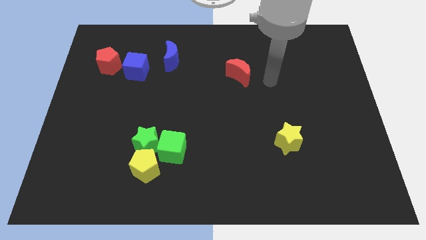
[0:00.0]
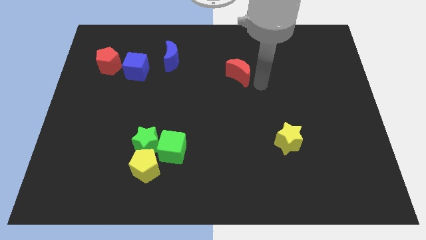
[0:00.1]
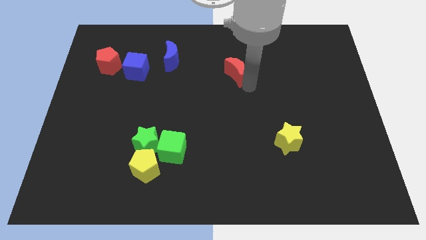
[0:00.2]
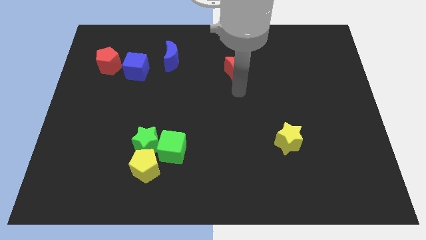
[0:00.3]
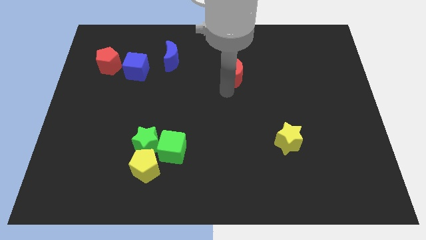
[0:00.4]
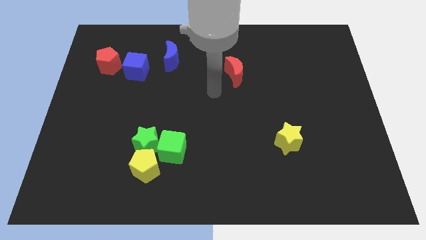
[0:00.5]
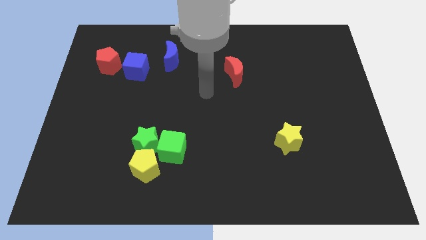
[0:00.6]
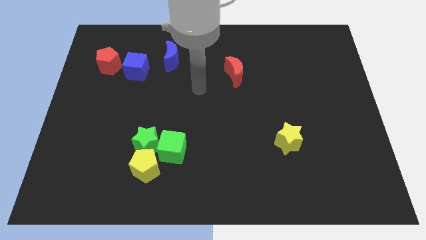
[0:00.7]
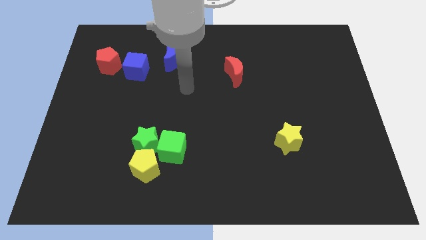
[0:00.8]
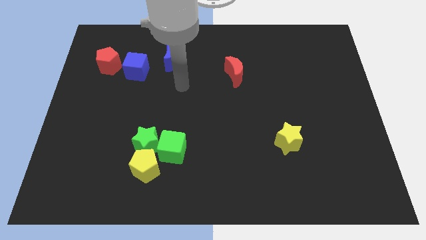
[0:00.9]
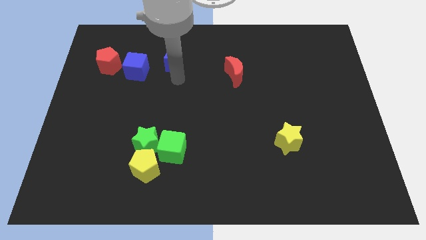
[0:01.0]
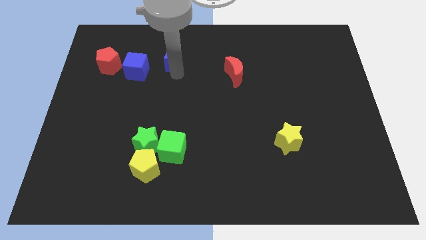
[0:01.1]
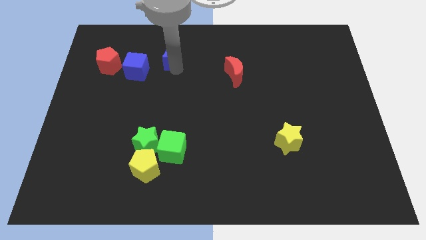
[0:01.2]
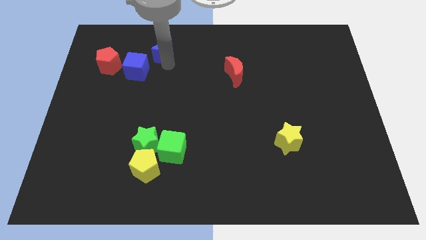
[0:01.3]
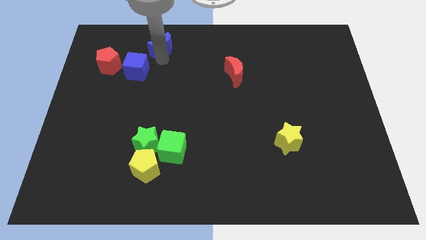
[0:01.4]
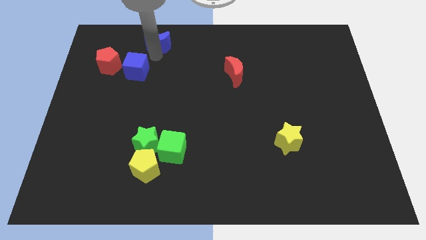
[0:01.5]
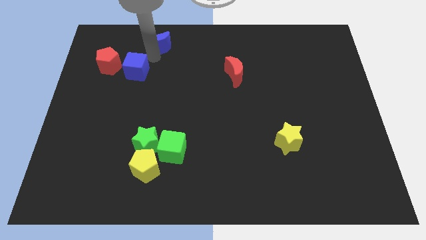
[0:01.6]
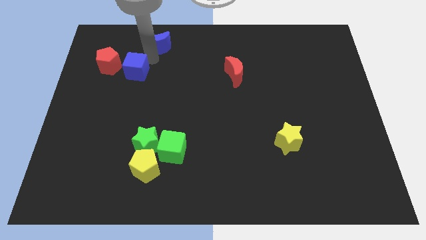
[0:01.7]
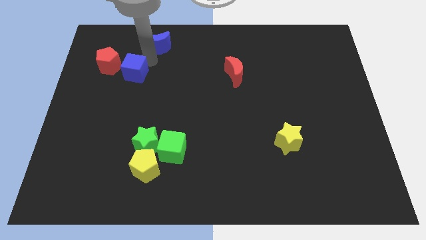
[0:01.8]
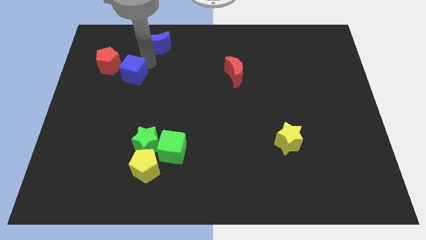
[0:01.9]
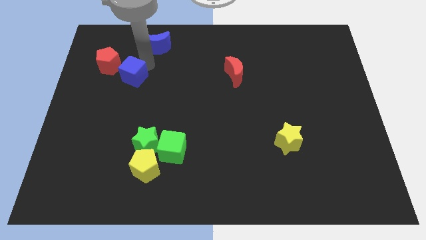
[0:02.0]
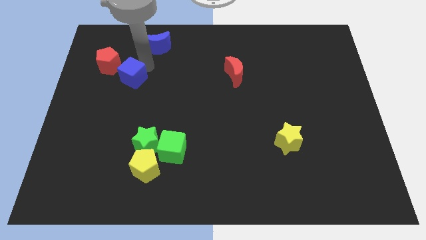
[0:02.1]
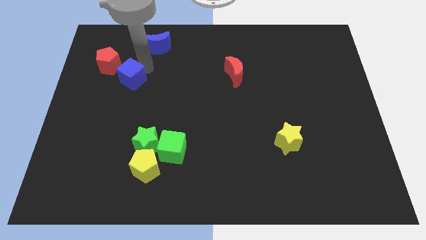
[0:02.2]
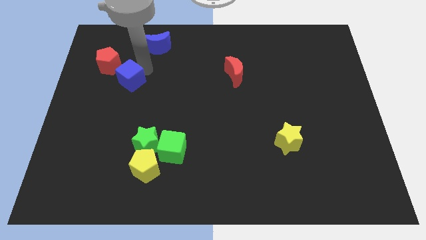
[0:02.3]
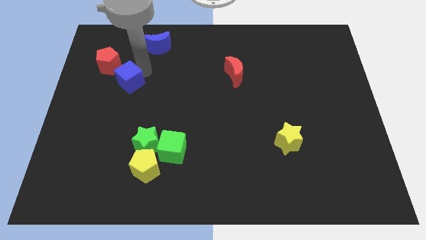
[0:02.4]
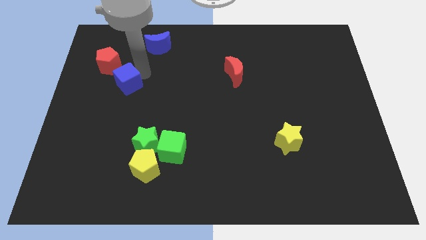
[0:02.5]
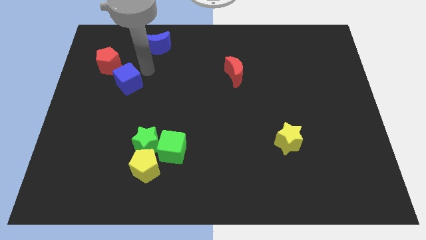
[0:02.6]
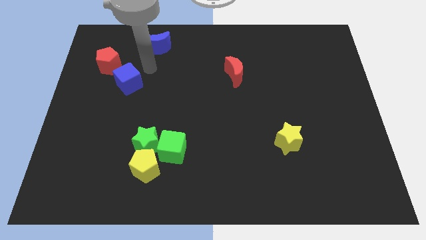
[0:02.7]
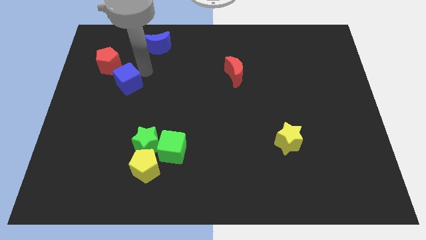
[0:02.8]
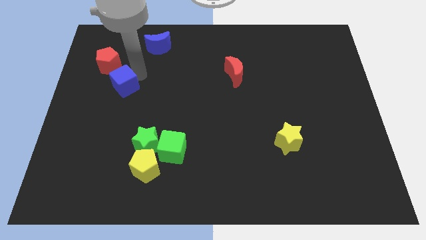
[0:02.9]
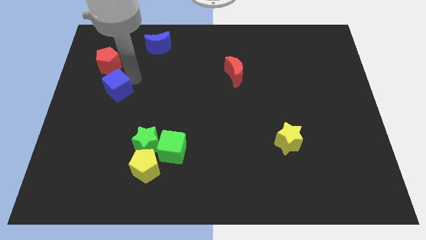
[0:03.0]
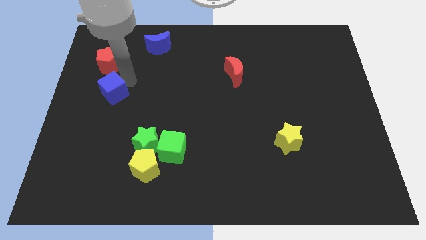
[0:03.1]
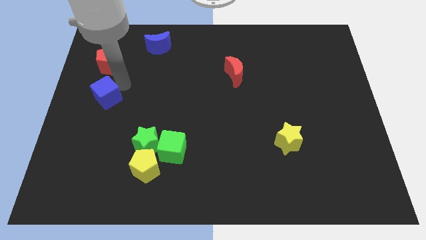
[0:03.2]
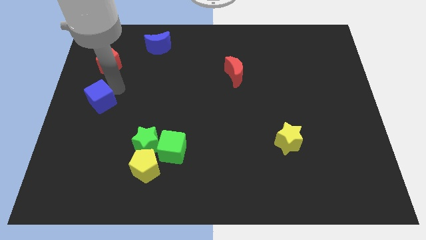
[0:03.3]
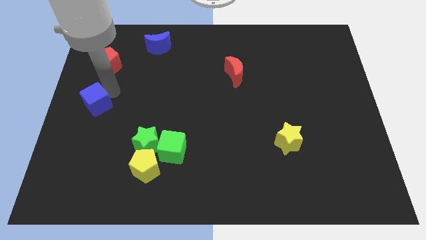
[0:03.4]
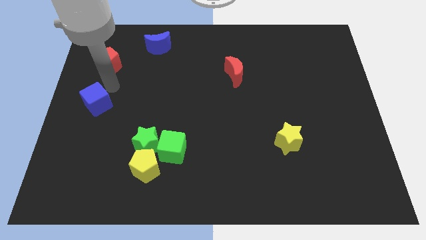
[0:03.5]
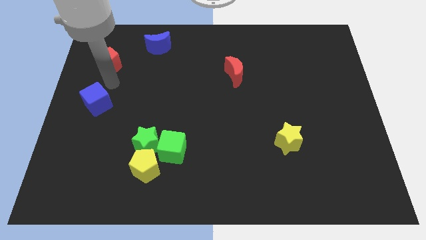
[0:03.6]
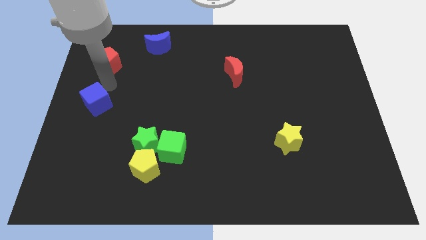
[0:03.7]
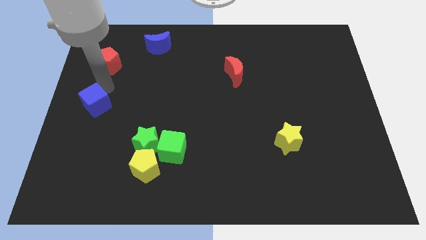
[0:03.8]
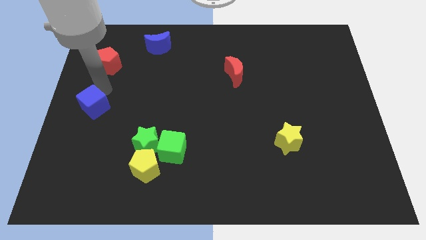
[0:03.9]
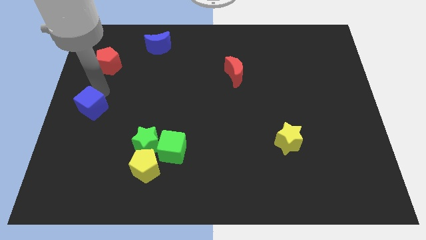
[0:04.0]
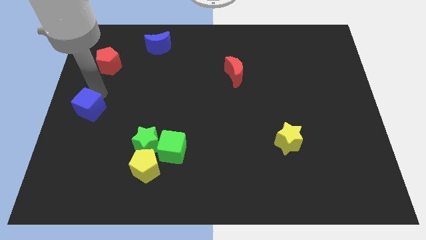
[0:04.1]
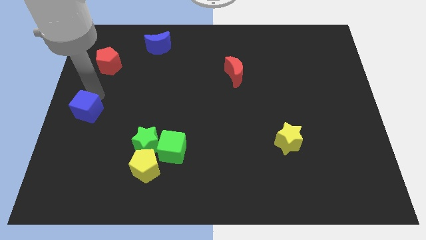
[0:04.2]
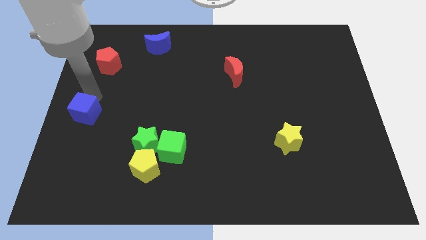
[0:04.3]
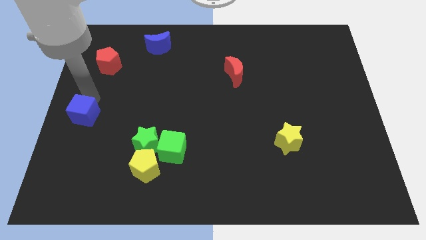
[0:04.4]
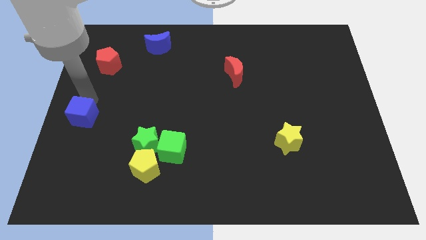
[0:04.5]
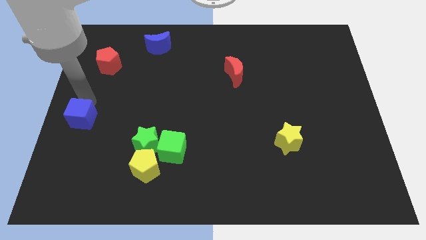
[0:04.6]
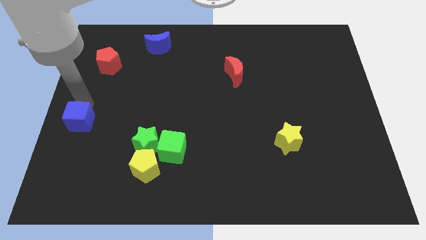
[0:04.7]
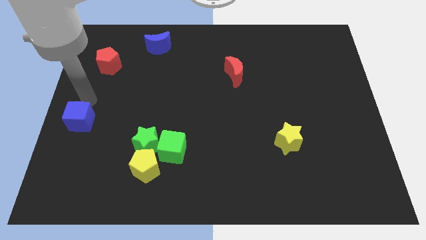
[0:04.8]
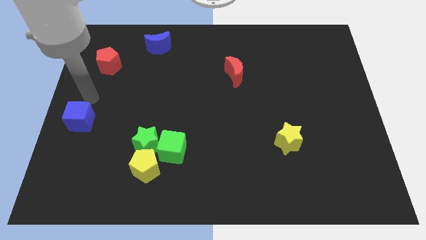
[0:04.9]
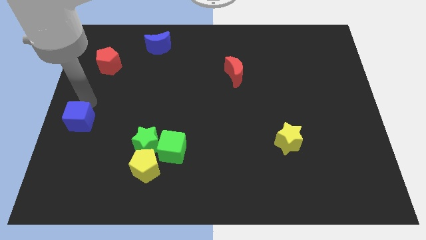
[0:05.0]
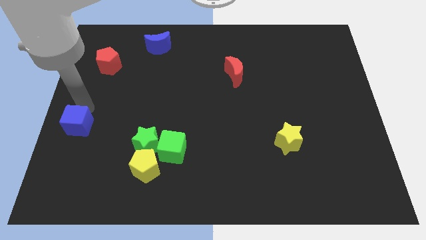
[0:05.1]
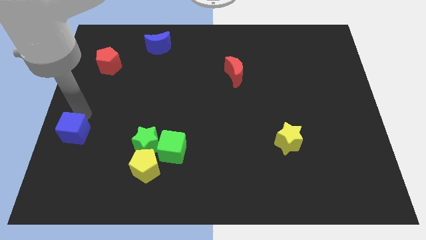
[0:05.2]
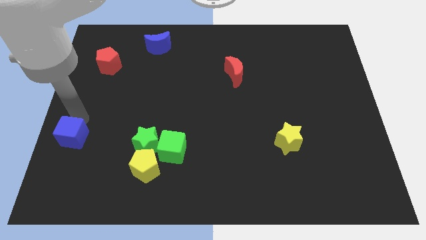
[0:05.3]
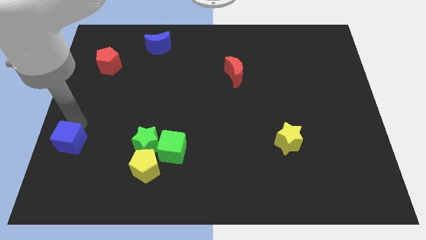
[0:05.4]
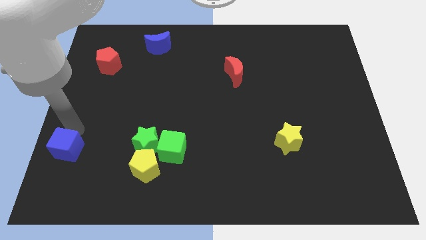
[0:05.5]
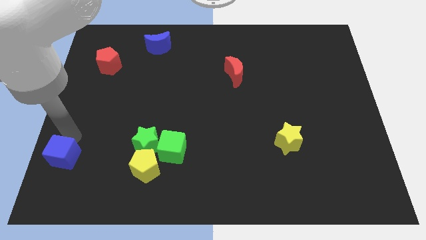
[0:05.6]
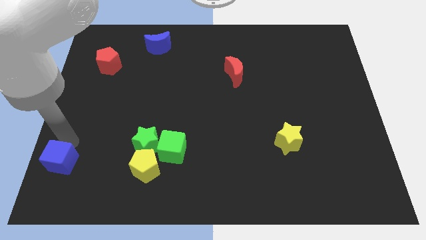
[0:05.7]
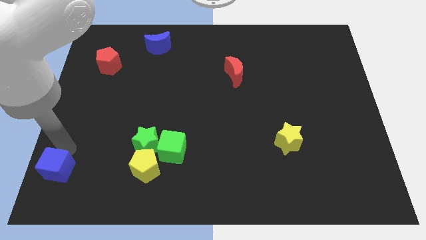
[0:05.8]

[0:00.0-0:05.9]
put the blue cube to the bottom left of the board
